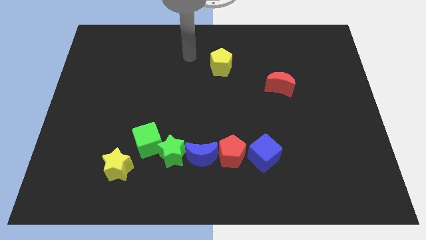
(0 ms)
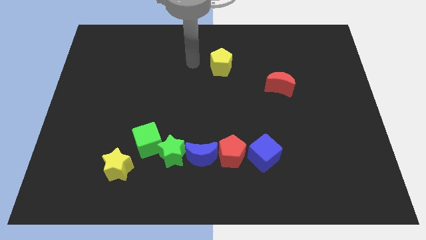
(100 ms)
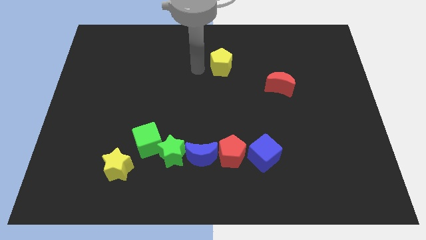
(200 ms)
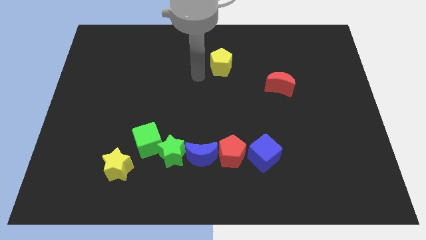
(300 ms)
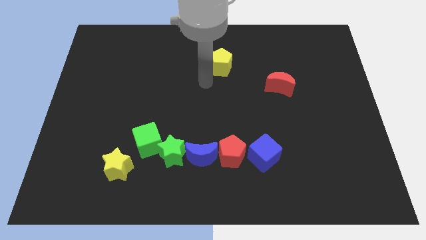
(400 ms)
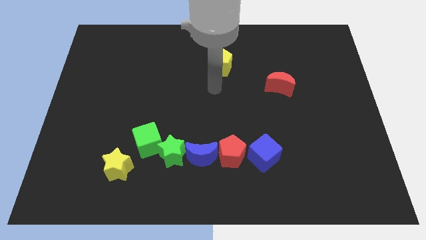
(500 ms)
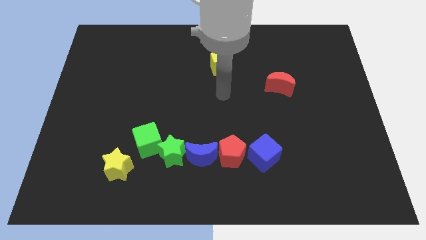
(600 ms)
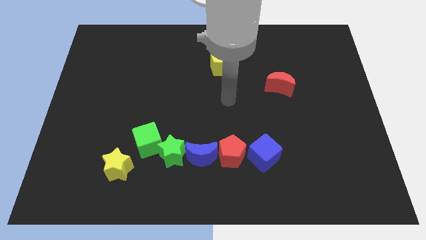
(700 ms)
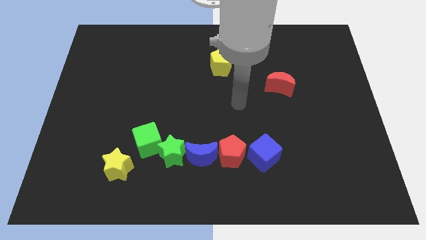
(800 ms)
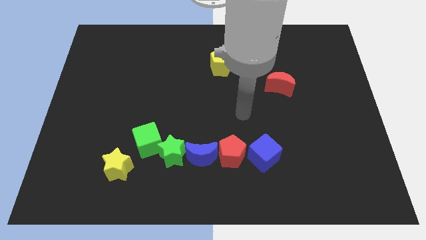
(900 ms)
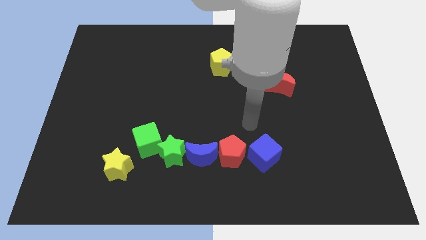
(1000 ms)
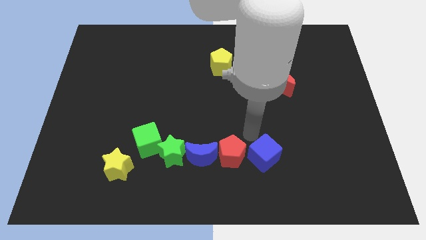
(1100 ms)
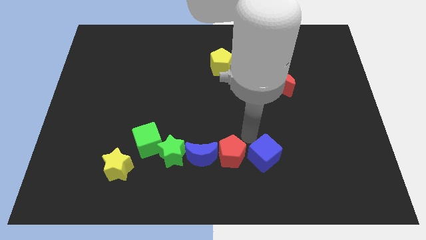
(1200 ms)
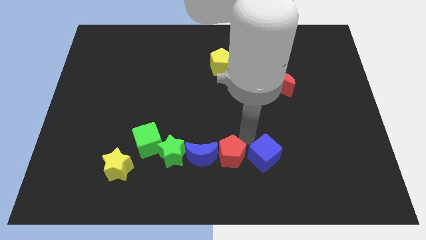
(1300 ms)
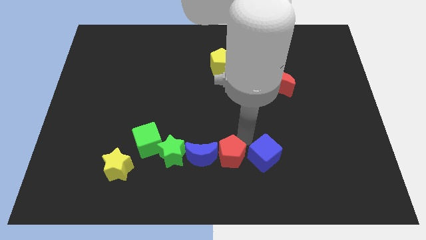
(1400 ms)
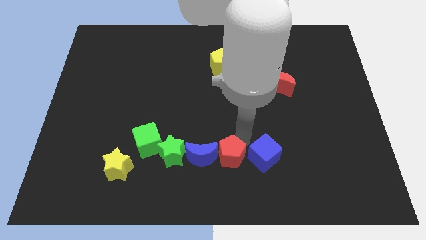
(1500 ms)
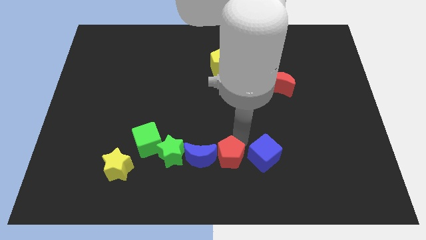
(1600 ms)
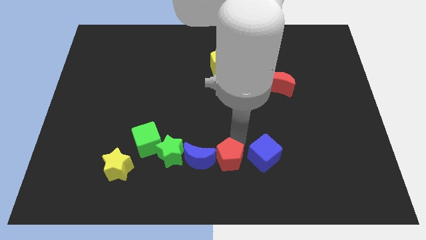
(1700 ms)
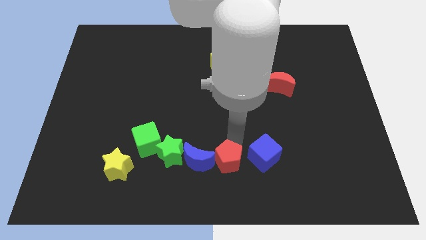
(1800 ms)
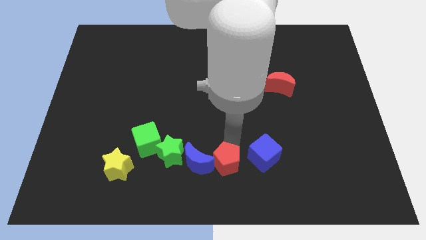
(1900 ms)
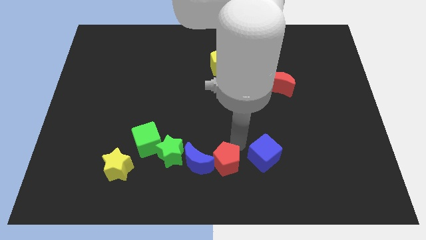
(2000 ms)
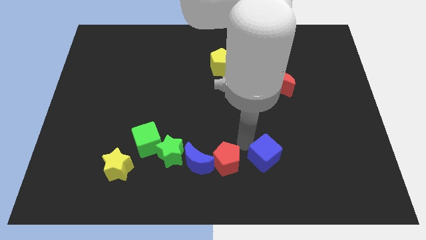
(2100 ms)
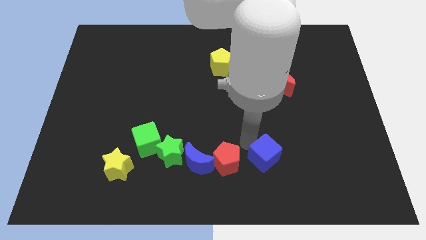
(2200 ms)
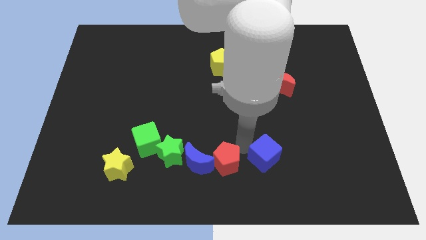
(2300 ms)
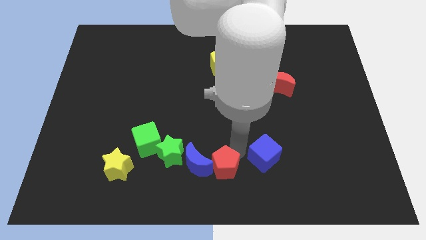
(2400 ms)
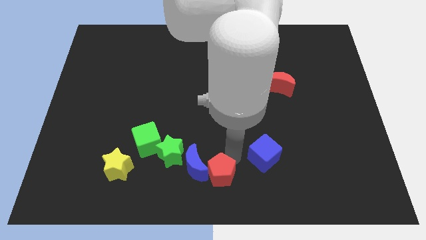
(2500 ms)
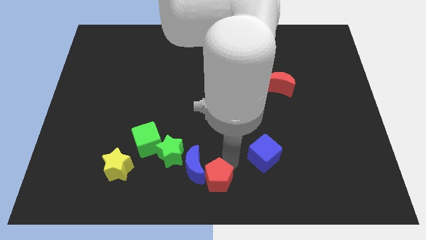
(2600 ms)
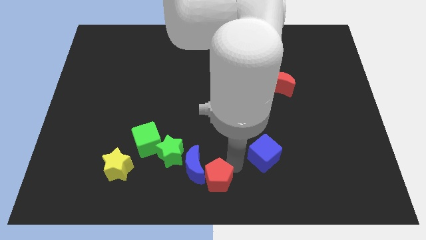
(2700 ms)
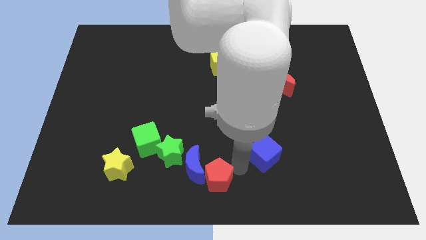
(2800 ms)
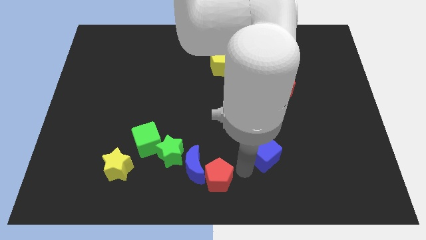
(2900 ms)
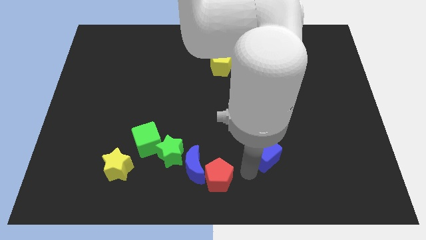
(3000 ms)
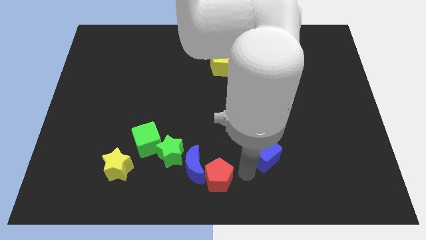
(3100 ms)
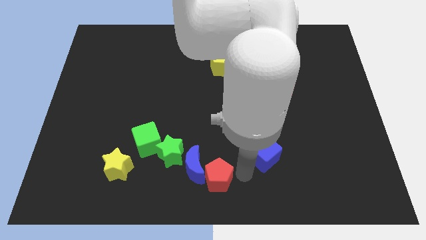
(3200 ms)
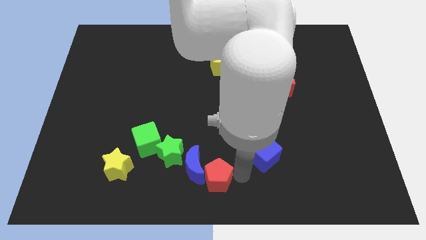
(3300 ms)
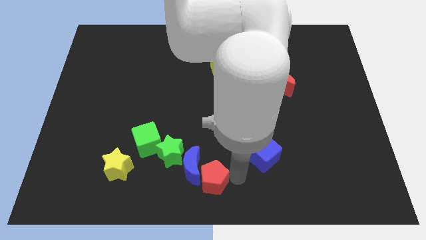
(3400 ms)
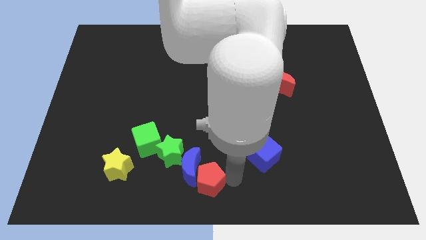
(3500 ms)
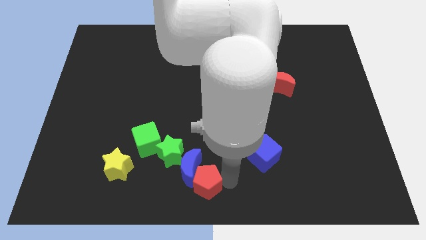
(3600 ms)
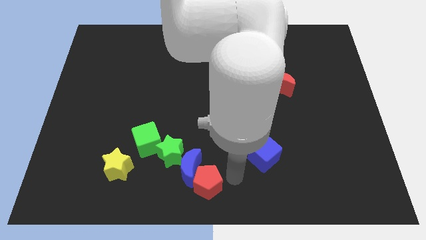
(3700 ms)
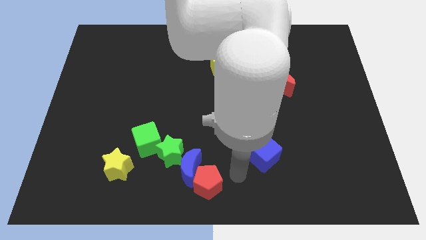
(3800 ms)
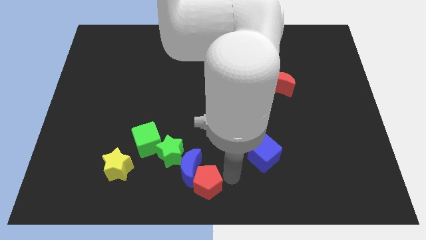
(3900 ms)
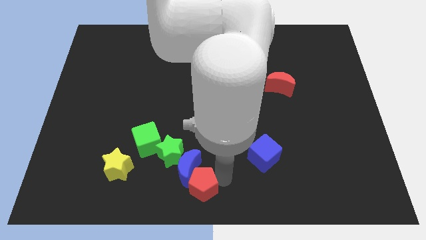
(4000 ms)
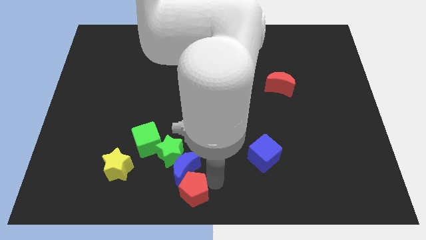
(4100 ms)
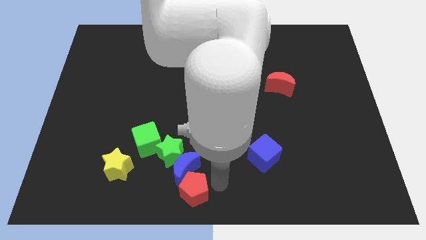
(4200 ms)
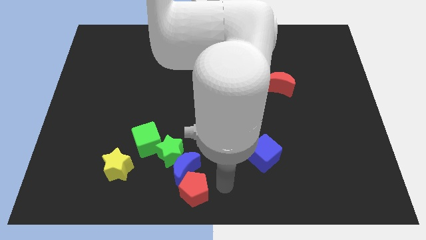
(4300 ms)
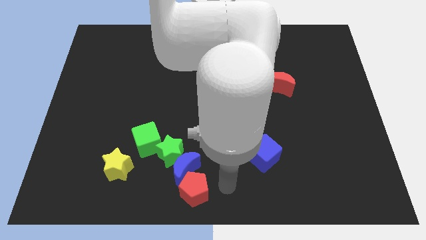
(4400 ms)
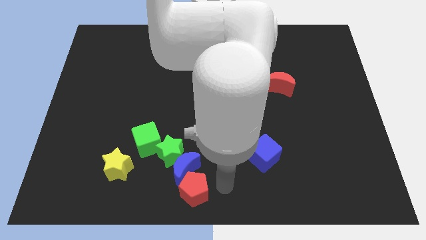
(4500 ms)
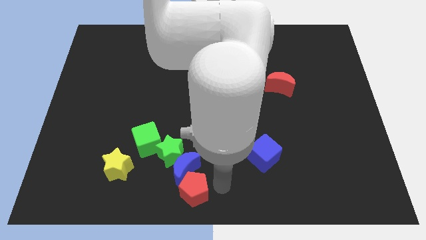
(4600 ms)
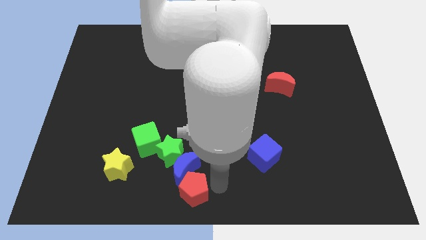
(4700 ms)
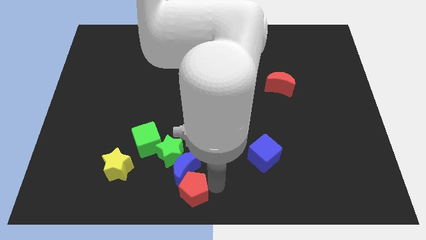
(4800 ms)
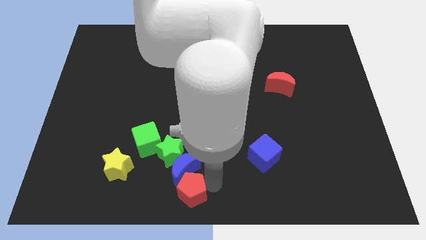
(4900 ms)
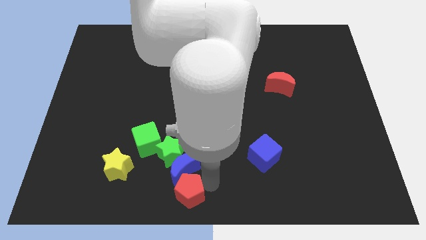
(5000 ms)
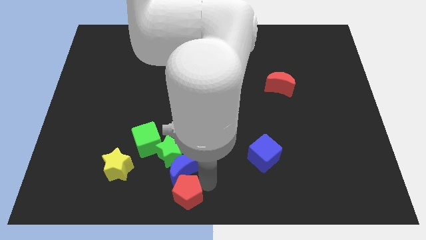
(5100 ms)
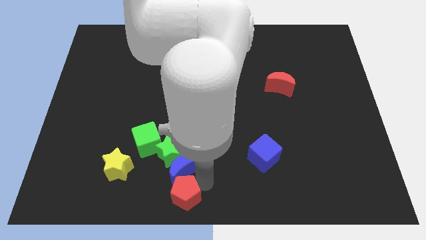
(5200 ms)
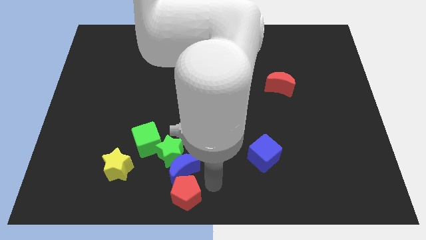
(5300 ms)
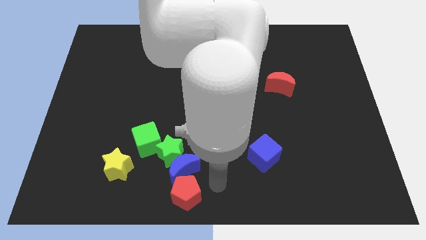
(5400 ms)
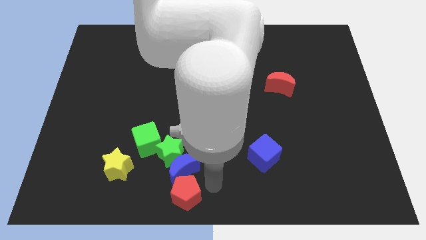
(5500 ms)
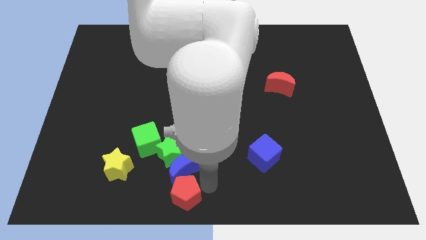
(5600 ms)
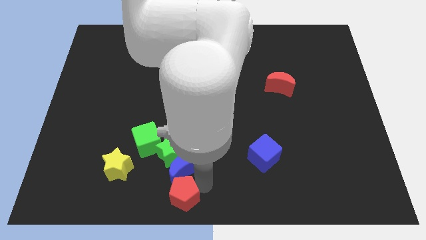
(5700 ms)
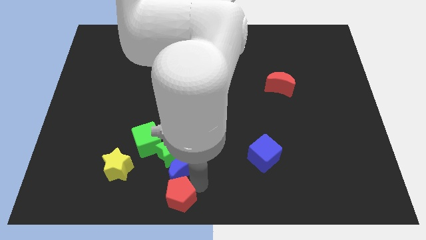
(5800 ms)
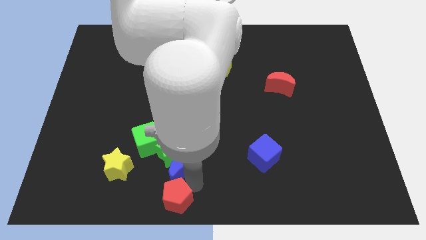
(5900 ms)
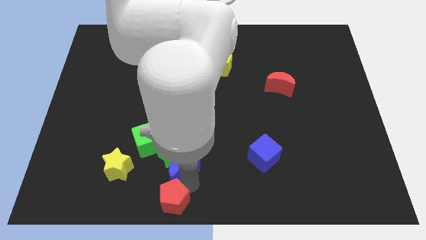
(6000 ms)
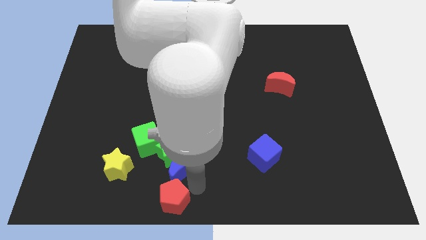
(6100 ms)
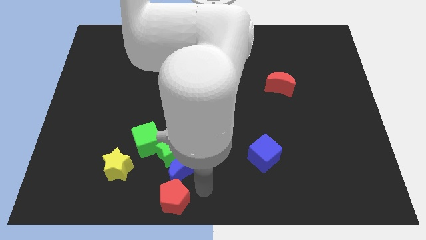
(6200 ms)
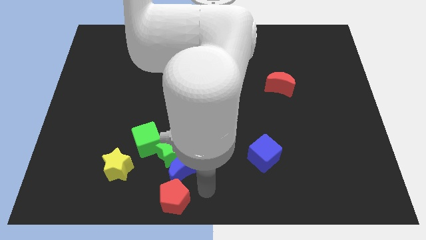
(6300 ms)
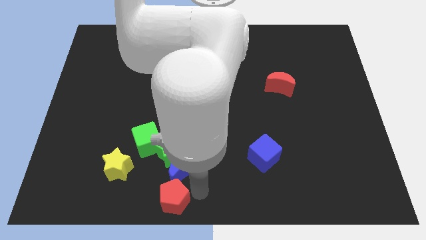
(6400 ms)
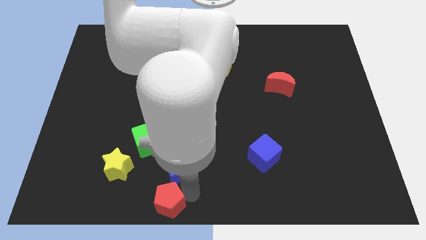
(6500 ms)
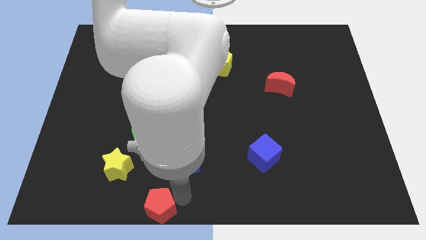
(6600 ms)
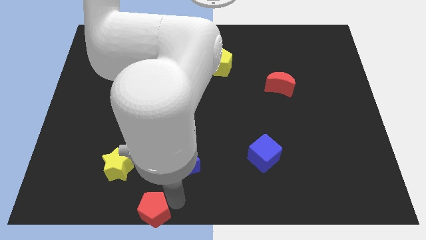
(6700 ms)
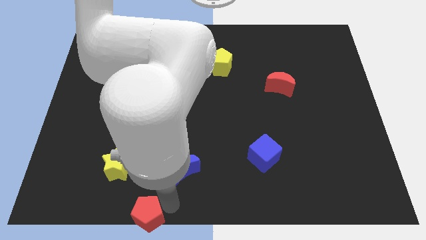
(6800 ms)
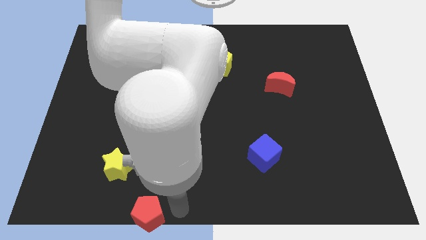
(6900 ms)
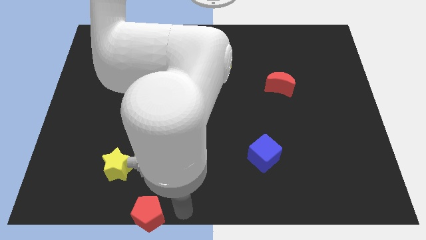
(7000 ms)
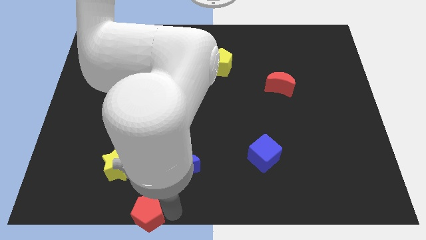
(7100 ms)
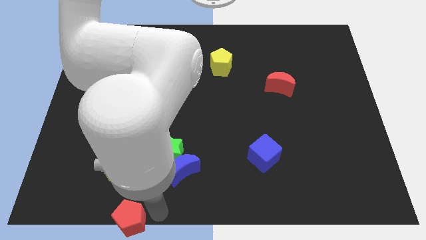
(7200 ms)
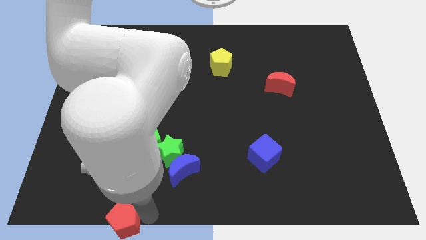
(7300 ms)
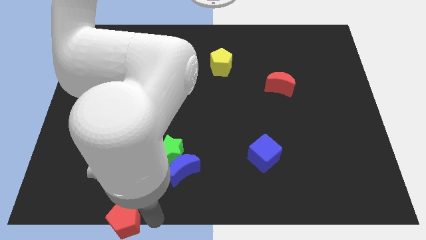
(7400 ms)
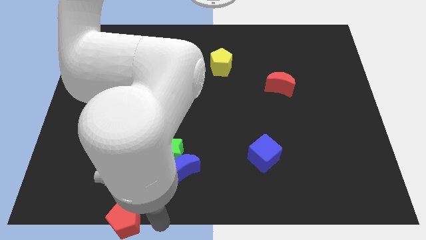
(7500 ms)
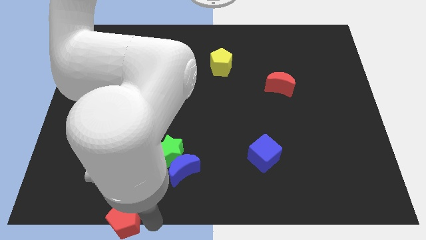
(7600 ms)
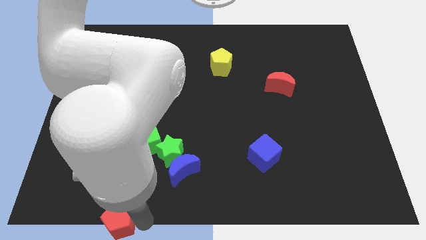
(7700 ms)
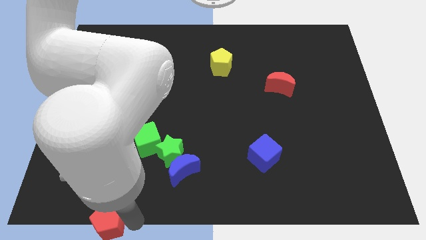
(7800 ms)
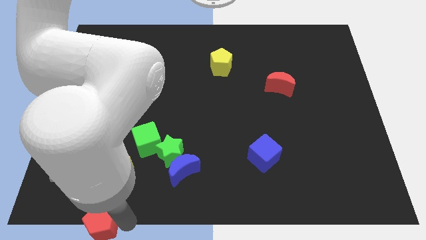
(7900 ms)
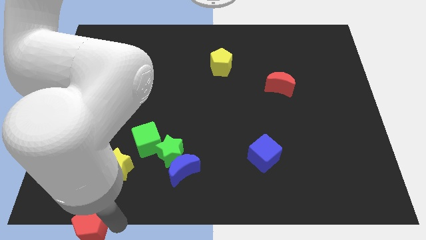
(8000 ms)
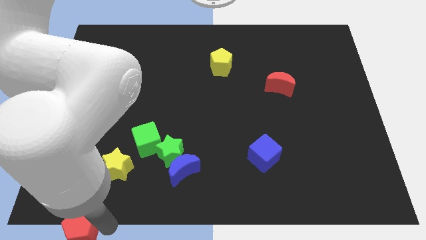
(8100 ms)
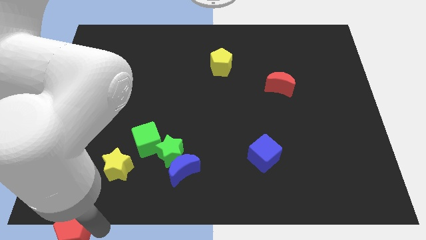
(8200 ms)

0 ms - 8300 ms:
put the red pentagon to the bottom left
